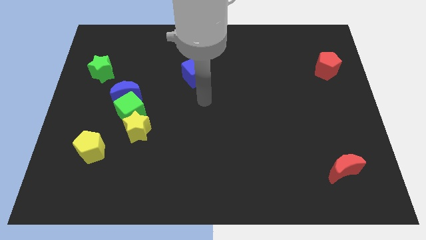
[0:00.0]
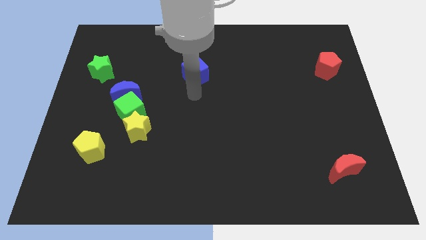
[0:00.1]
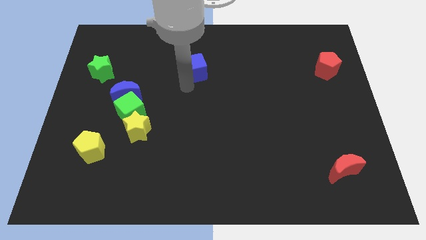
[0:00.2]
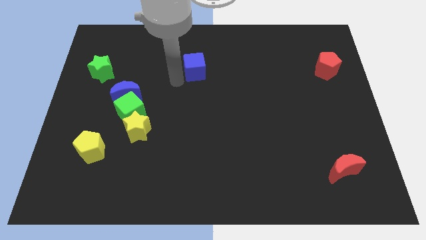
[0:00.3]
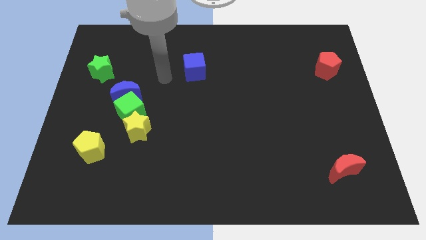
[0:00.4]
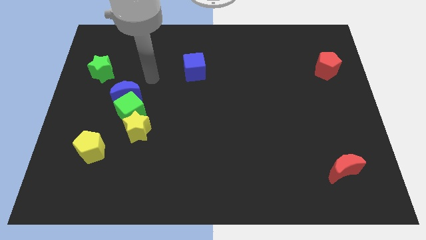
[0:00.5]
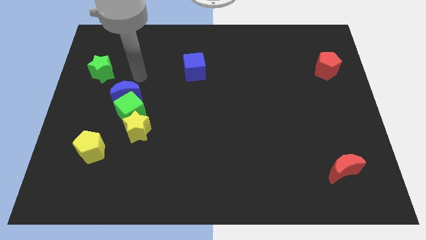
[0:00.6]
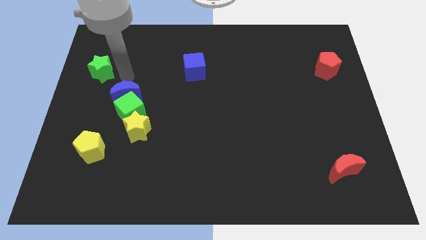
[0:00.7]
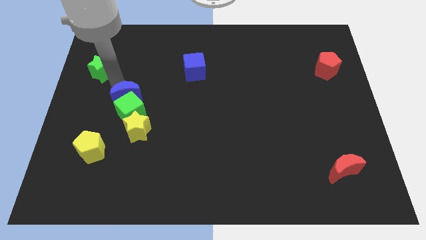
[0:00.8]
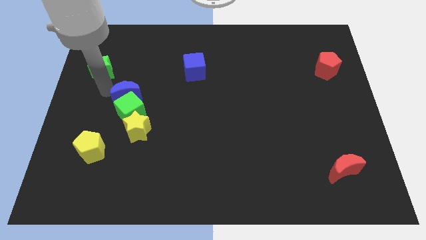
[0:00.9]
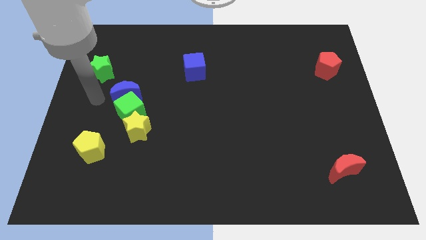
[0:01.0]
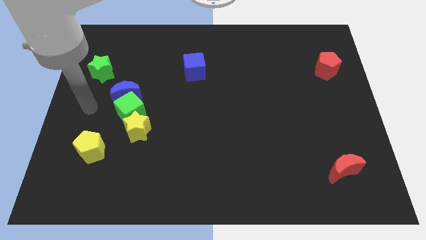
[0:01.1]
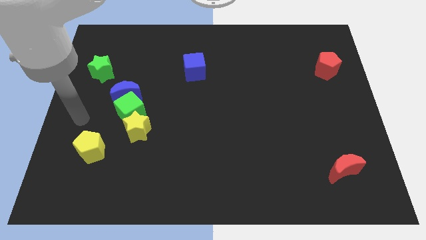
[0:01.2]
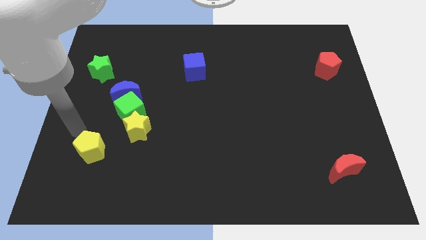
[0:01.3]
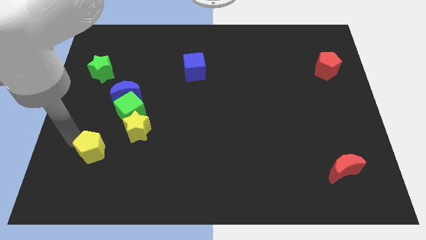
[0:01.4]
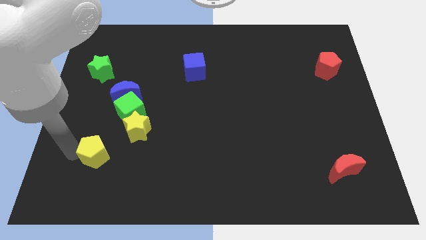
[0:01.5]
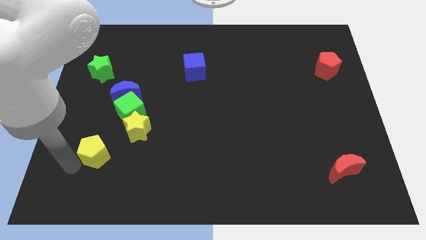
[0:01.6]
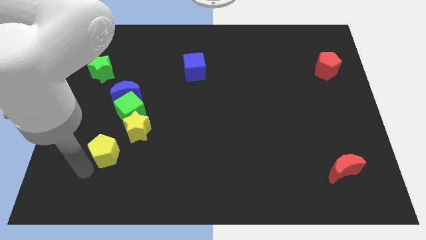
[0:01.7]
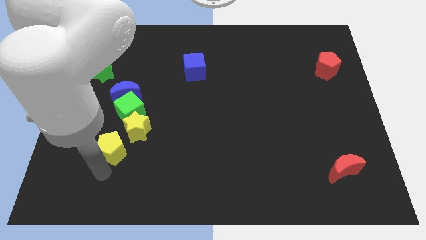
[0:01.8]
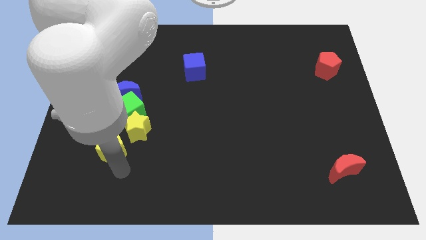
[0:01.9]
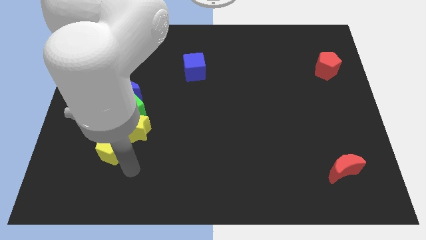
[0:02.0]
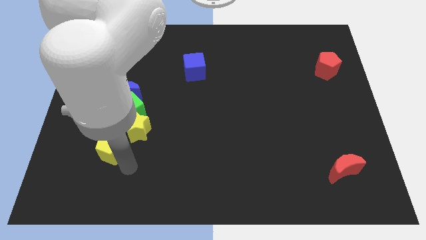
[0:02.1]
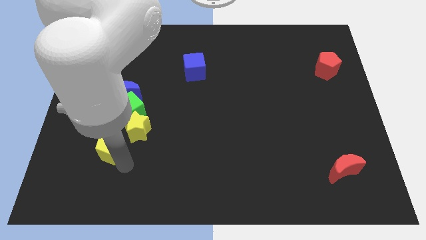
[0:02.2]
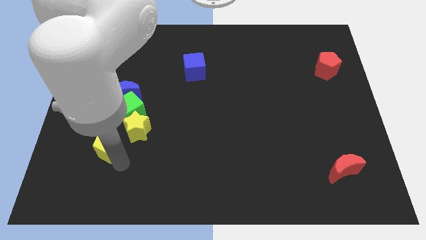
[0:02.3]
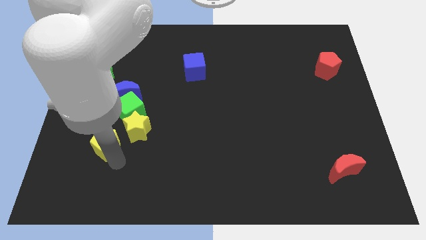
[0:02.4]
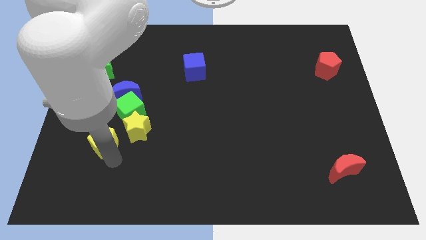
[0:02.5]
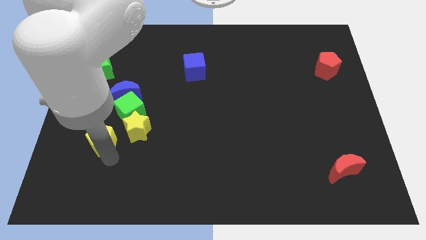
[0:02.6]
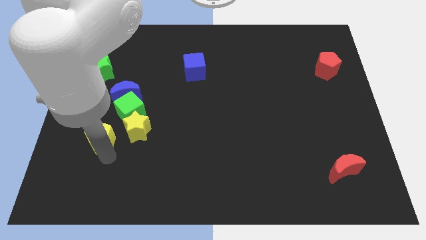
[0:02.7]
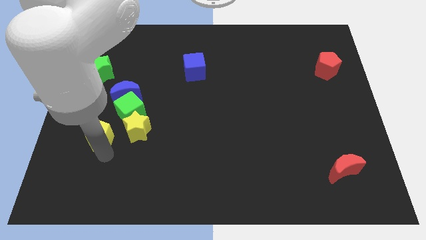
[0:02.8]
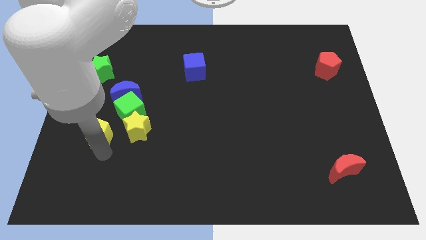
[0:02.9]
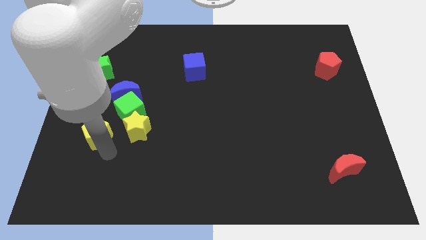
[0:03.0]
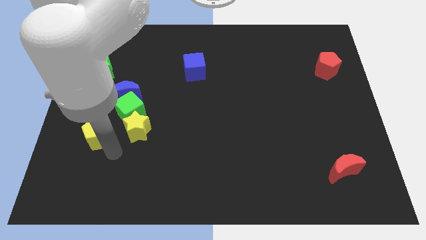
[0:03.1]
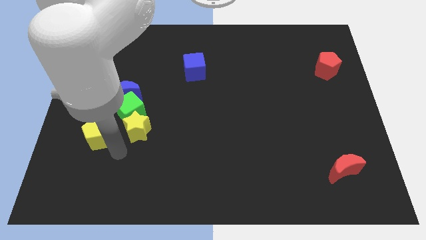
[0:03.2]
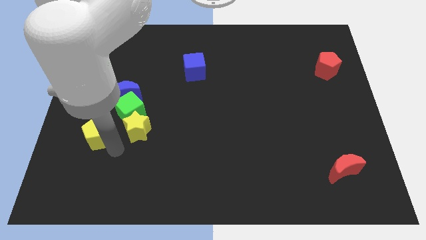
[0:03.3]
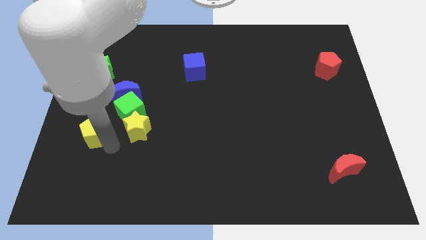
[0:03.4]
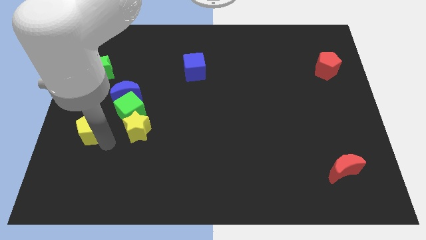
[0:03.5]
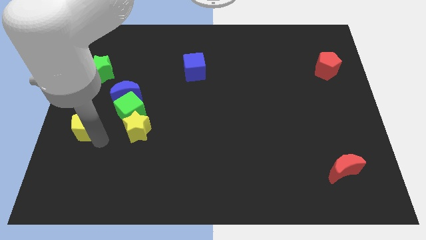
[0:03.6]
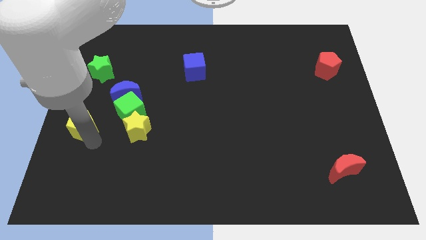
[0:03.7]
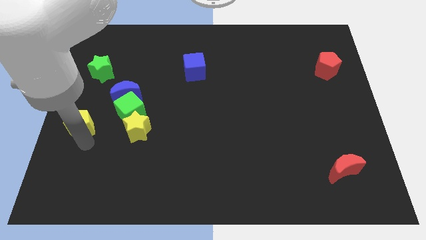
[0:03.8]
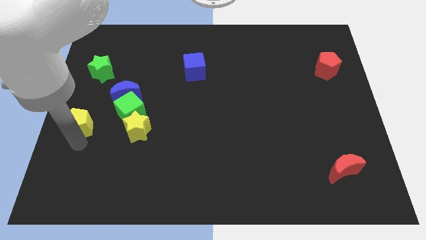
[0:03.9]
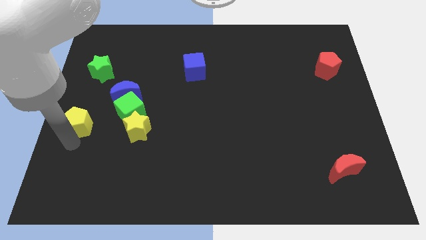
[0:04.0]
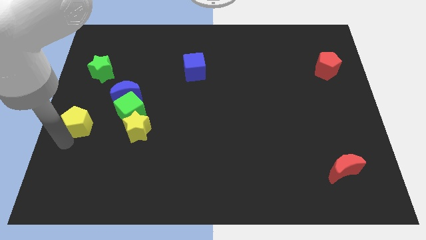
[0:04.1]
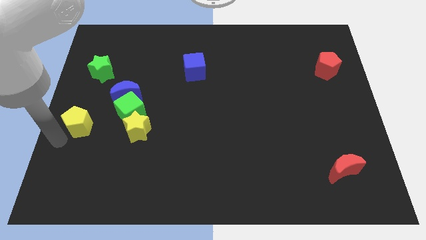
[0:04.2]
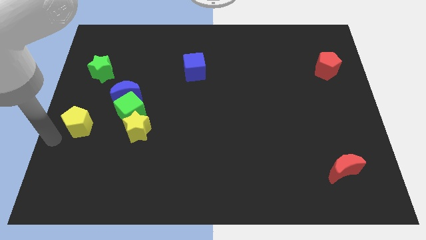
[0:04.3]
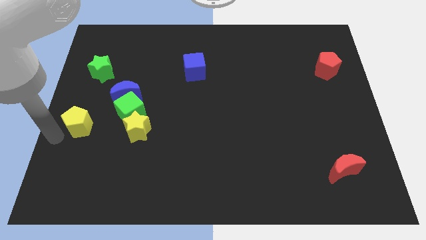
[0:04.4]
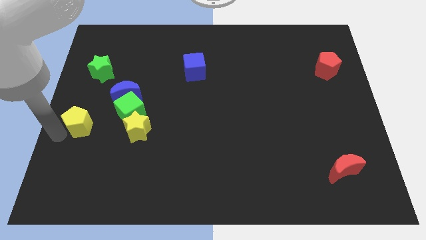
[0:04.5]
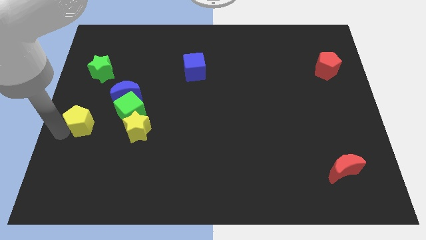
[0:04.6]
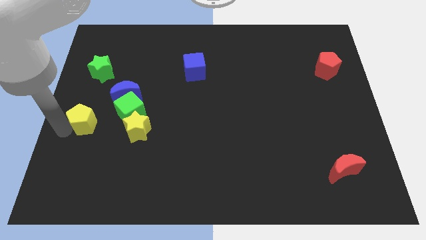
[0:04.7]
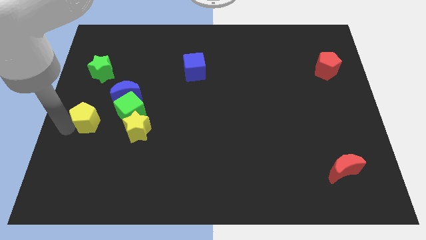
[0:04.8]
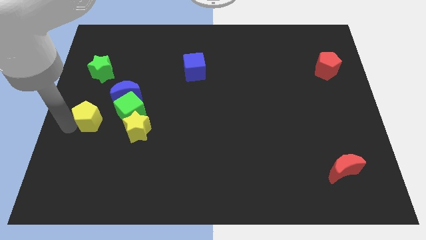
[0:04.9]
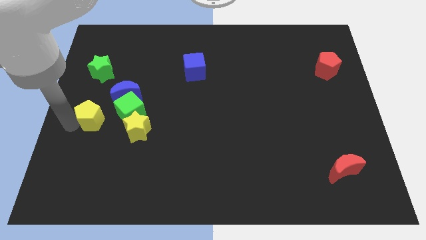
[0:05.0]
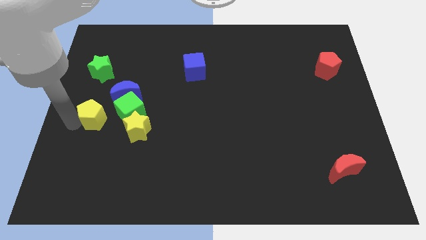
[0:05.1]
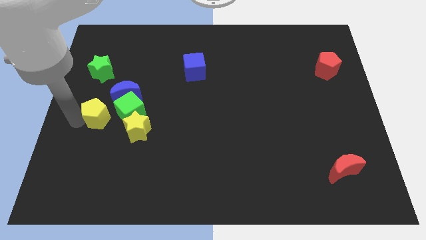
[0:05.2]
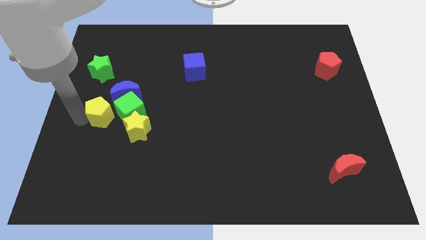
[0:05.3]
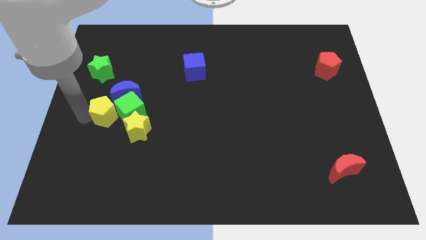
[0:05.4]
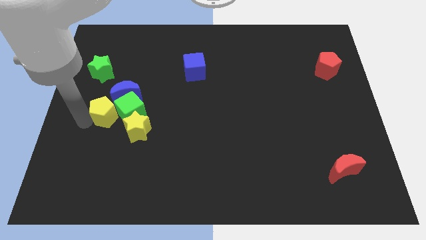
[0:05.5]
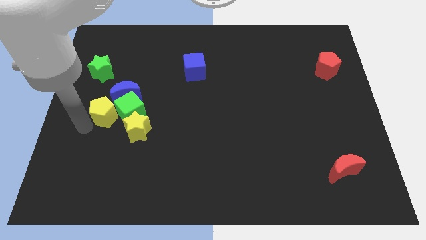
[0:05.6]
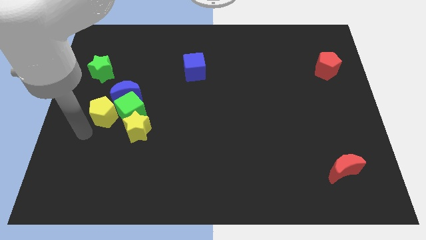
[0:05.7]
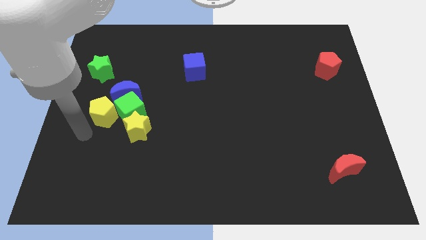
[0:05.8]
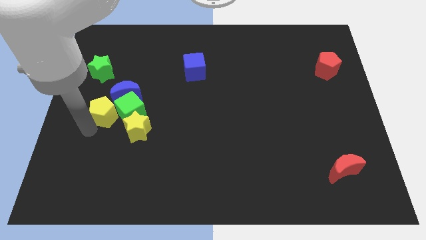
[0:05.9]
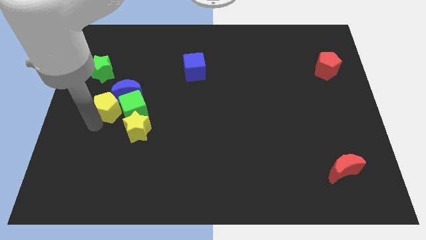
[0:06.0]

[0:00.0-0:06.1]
push the yellow pentagon to the blue moon

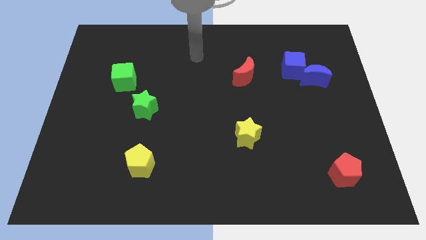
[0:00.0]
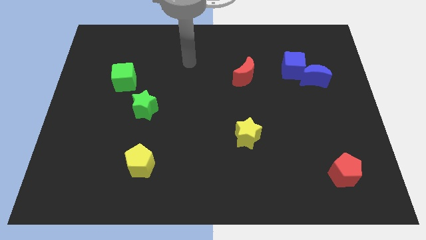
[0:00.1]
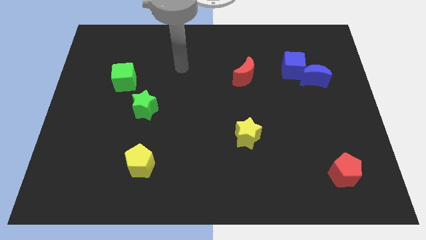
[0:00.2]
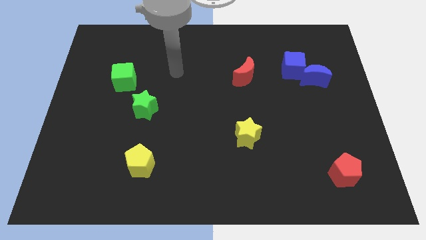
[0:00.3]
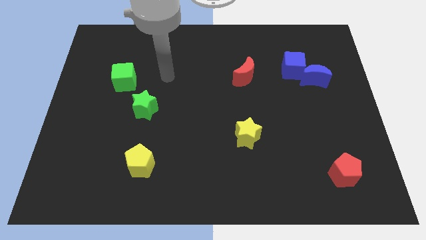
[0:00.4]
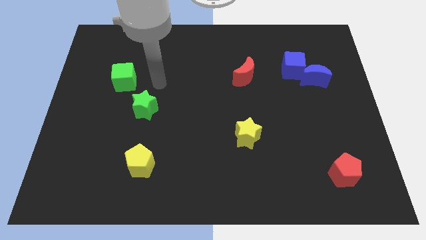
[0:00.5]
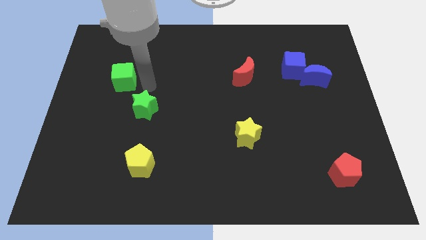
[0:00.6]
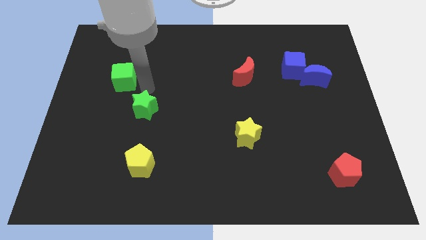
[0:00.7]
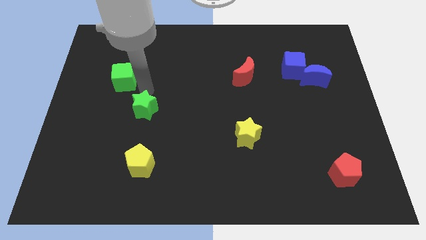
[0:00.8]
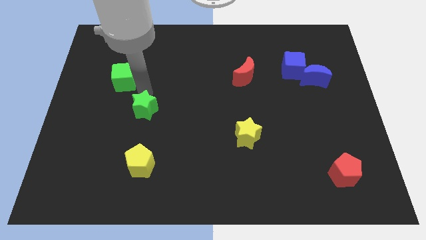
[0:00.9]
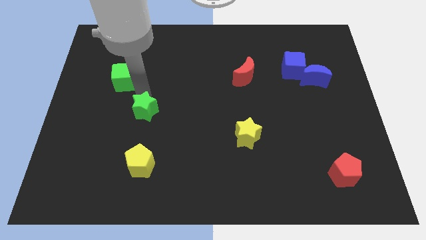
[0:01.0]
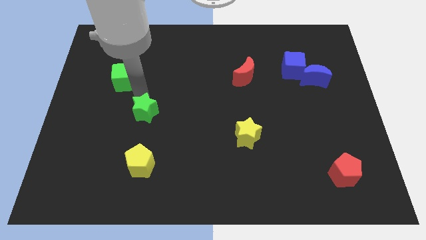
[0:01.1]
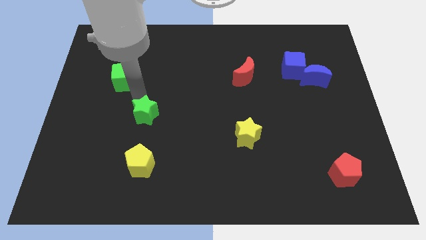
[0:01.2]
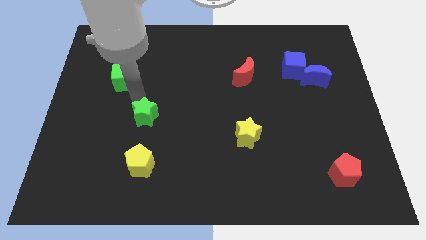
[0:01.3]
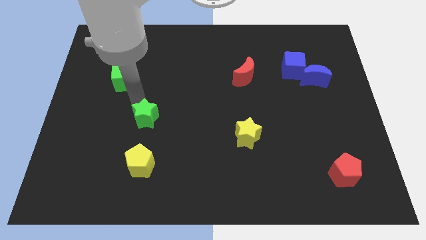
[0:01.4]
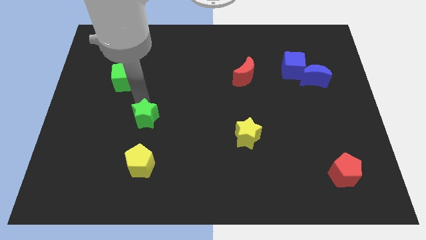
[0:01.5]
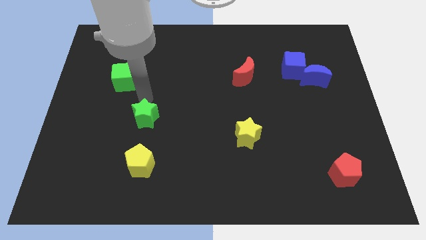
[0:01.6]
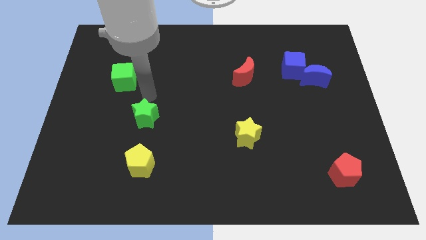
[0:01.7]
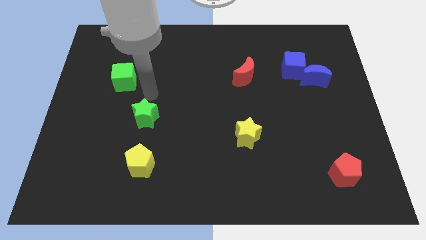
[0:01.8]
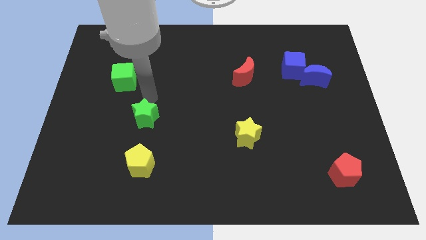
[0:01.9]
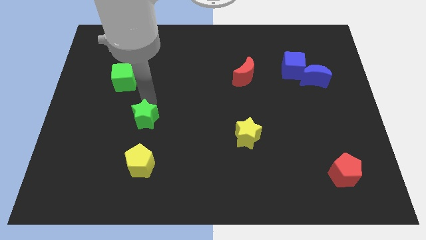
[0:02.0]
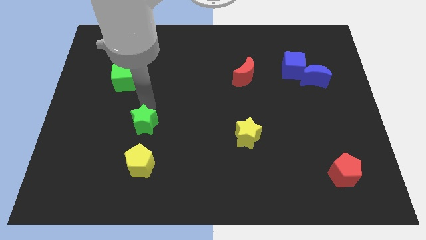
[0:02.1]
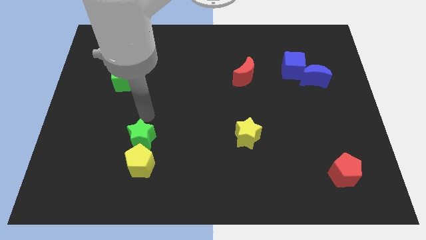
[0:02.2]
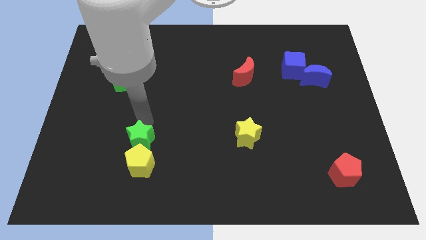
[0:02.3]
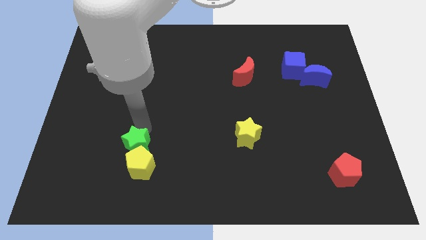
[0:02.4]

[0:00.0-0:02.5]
put the green star next to the yellow pentagon
